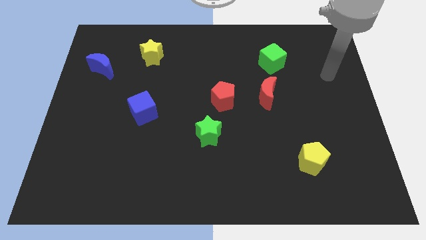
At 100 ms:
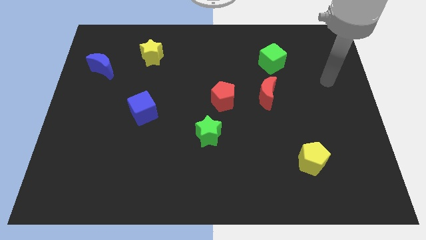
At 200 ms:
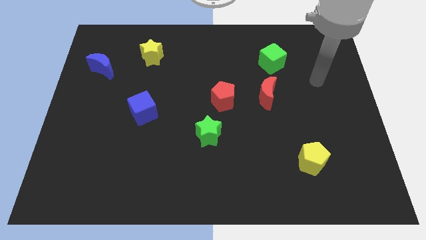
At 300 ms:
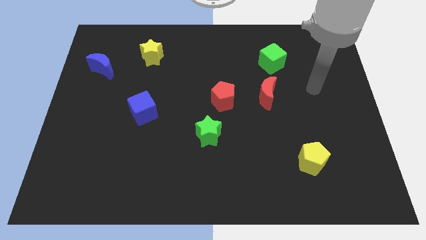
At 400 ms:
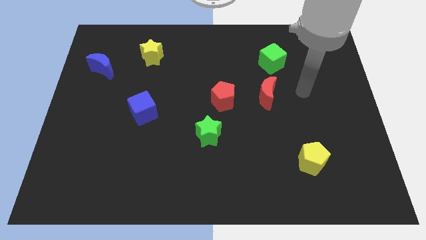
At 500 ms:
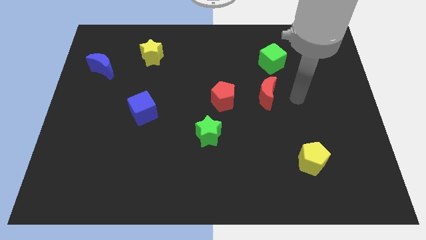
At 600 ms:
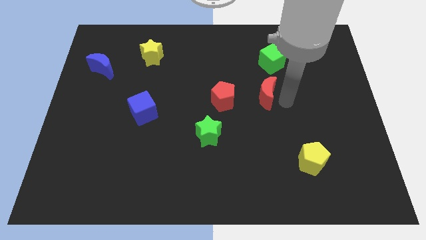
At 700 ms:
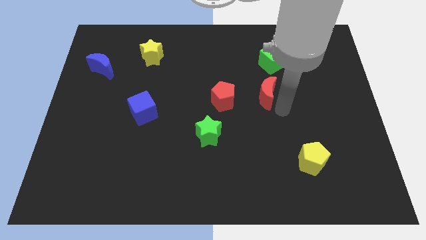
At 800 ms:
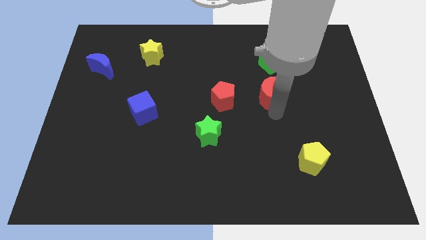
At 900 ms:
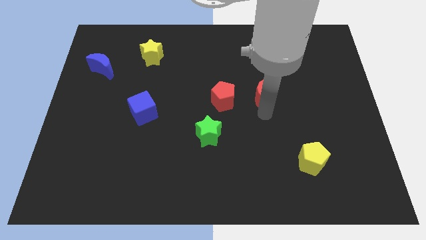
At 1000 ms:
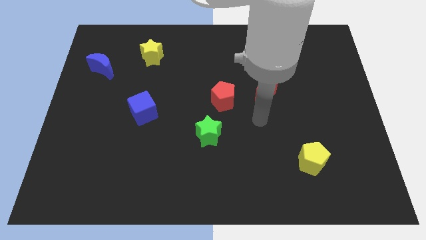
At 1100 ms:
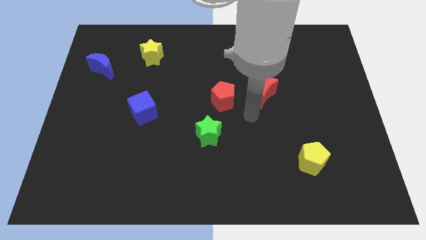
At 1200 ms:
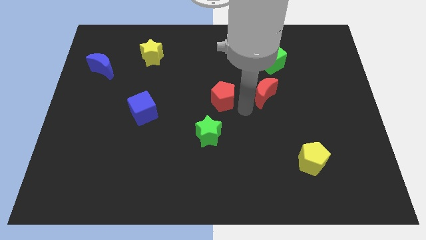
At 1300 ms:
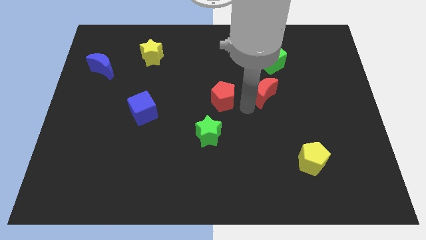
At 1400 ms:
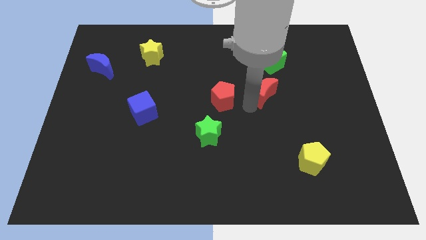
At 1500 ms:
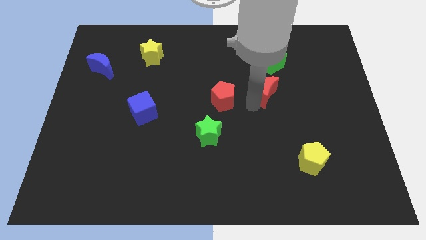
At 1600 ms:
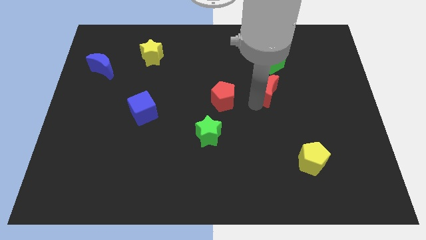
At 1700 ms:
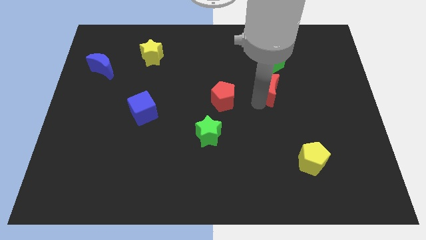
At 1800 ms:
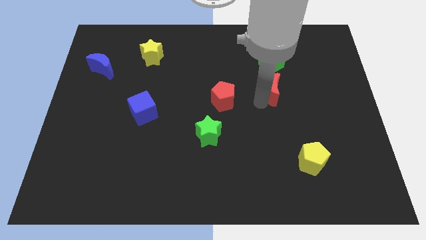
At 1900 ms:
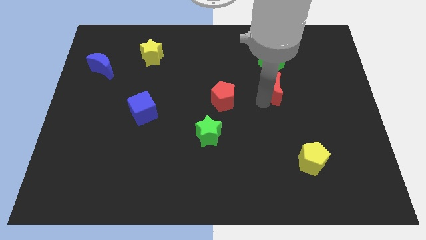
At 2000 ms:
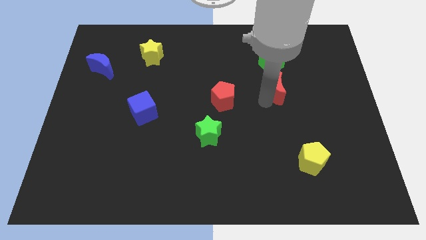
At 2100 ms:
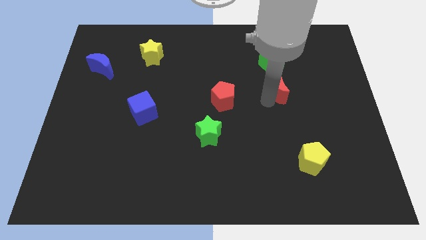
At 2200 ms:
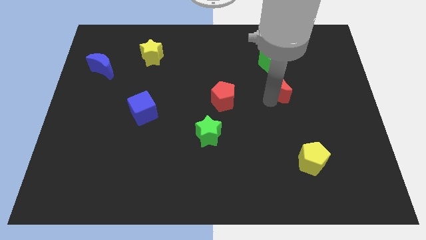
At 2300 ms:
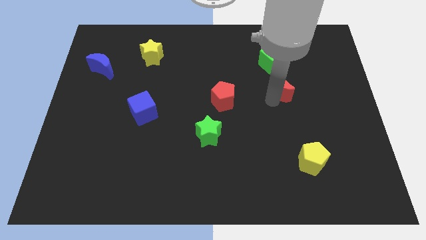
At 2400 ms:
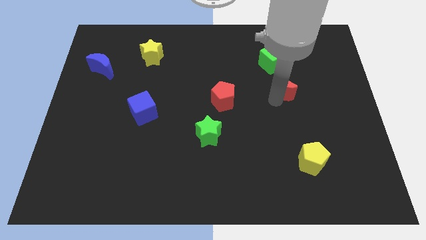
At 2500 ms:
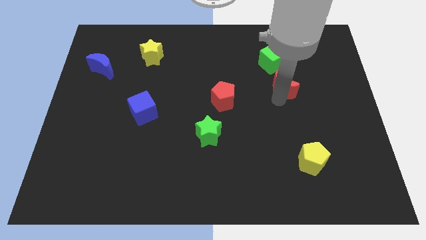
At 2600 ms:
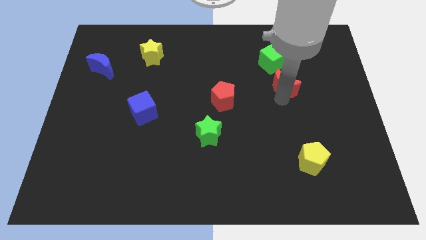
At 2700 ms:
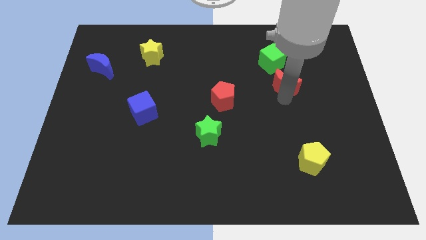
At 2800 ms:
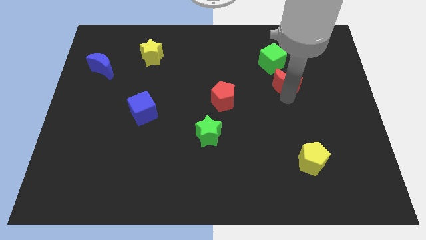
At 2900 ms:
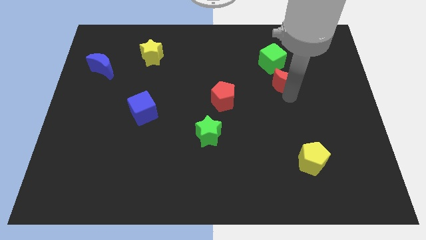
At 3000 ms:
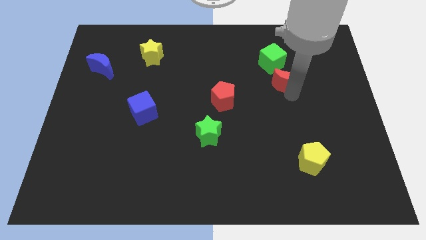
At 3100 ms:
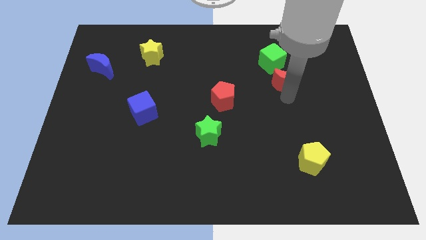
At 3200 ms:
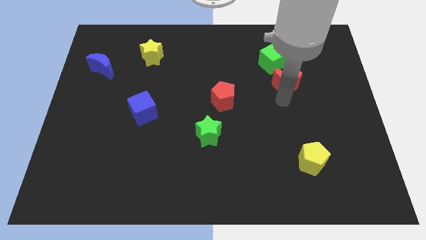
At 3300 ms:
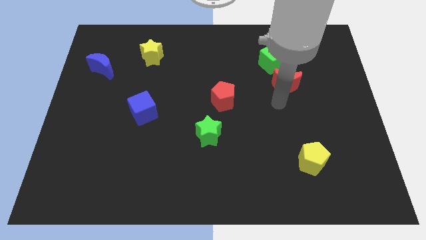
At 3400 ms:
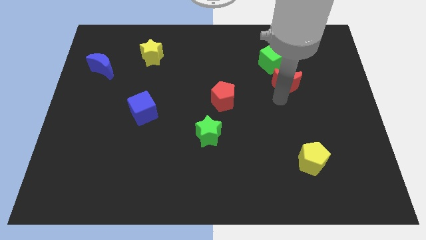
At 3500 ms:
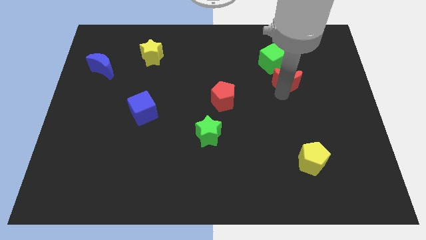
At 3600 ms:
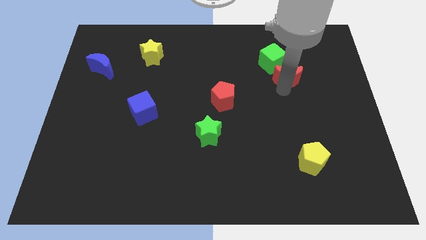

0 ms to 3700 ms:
slide the red moon up and then right somewhat

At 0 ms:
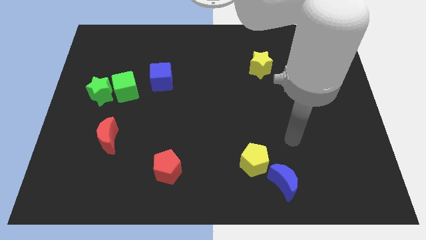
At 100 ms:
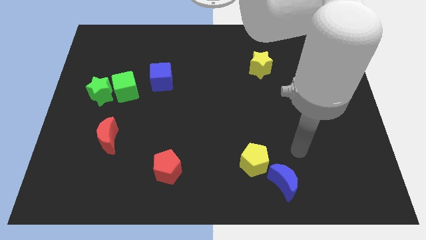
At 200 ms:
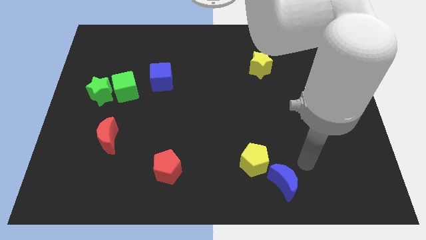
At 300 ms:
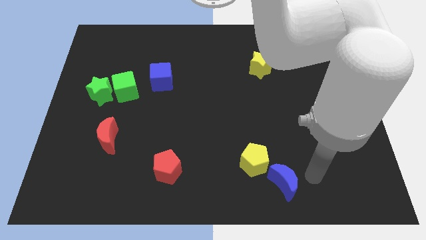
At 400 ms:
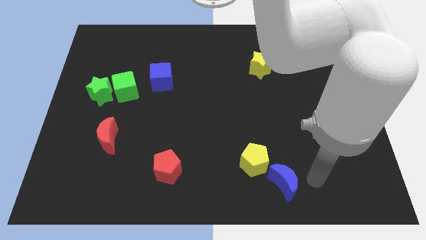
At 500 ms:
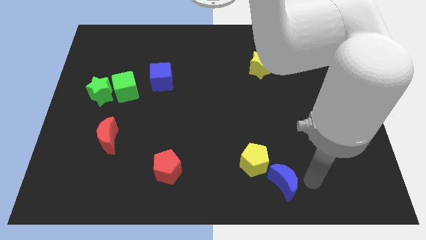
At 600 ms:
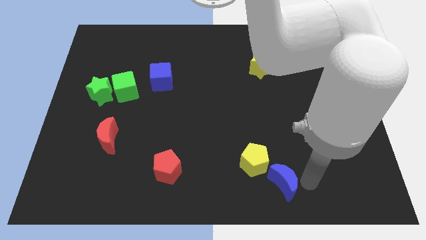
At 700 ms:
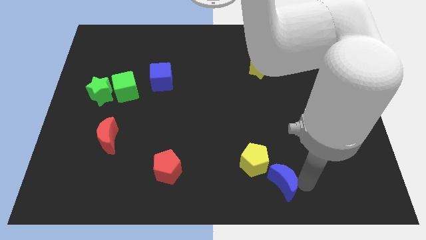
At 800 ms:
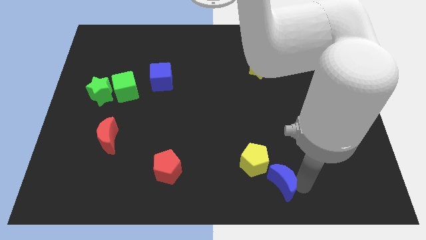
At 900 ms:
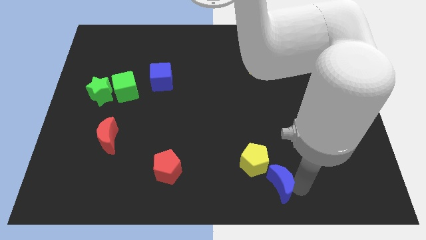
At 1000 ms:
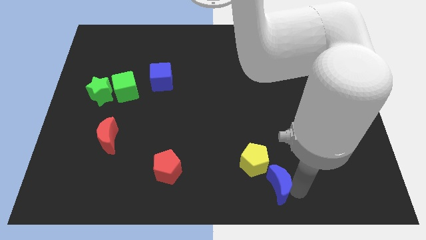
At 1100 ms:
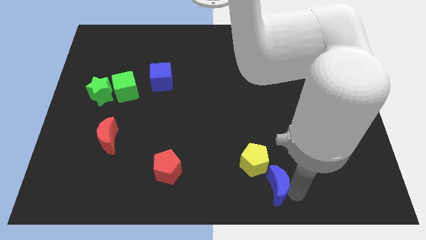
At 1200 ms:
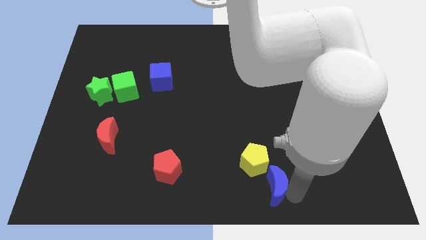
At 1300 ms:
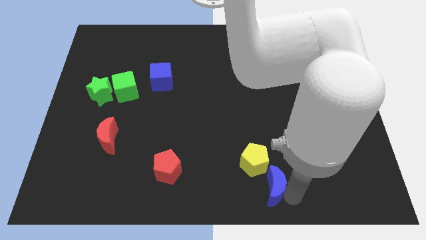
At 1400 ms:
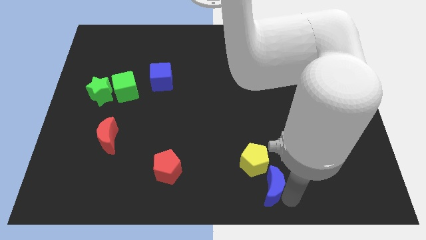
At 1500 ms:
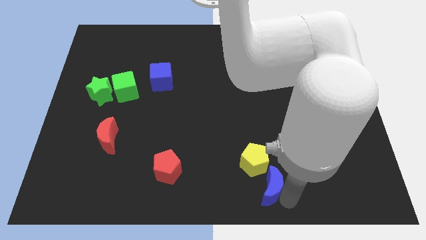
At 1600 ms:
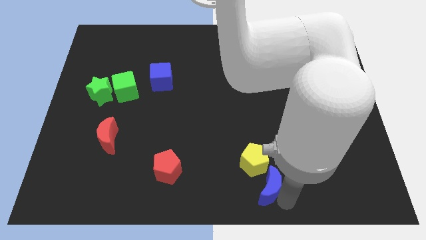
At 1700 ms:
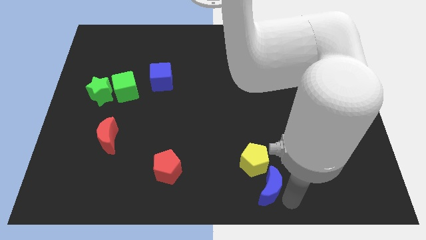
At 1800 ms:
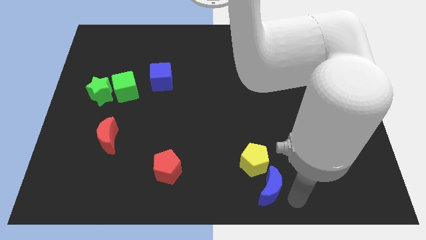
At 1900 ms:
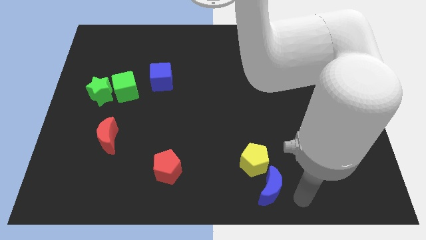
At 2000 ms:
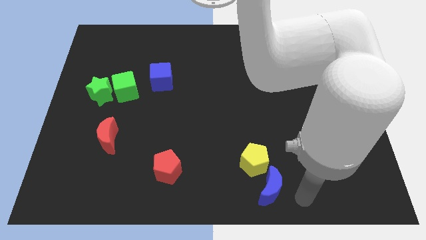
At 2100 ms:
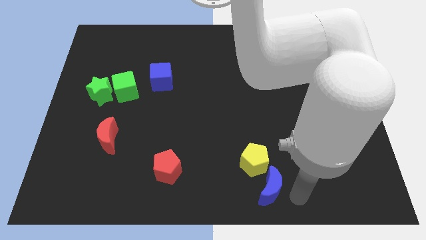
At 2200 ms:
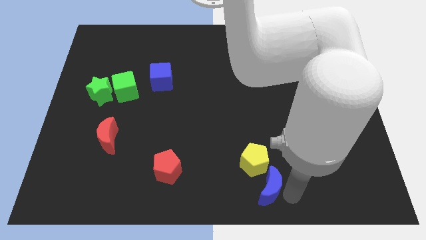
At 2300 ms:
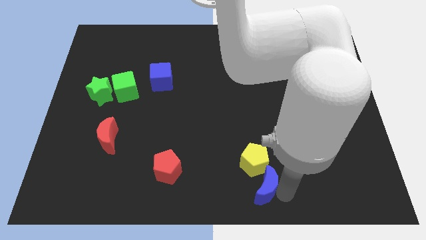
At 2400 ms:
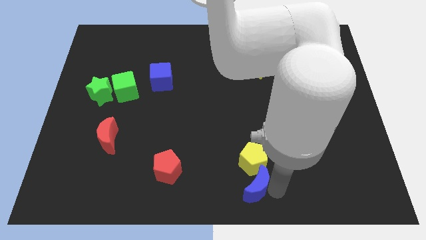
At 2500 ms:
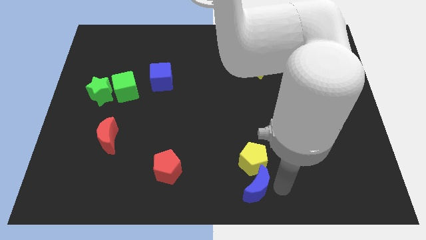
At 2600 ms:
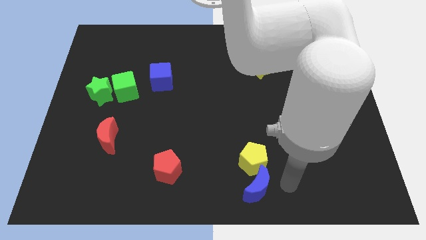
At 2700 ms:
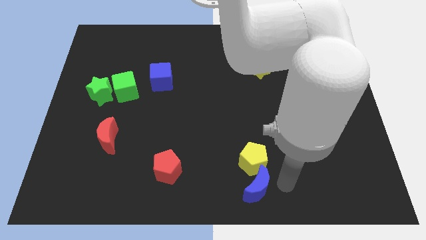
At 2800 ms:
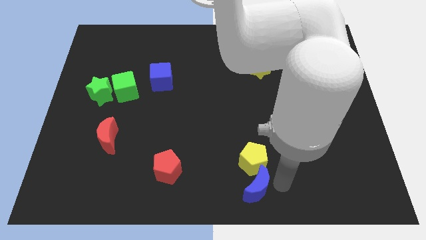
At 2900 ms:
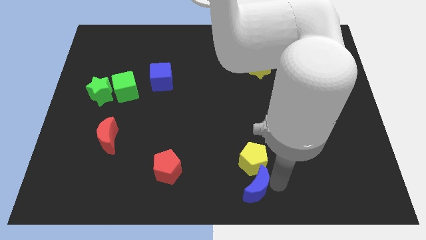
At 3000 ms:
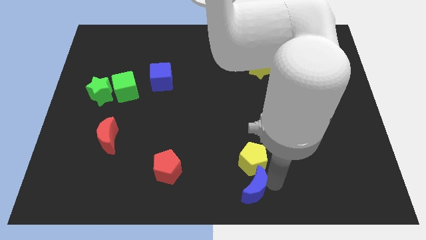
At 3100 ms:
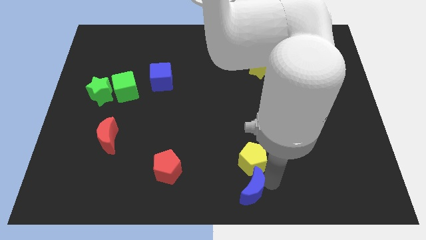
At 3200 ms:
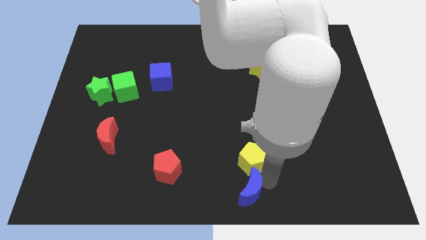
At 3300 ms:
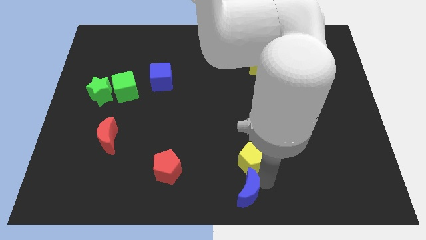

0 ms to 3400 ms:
move the blue moon a little to the left

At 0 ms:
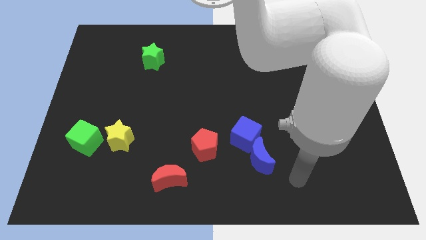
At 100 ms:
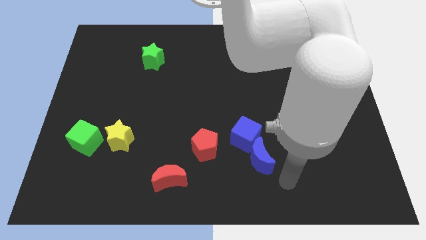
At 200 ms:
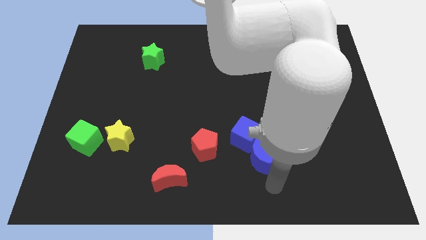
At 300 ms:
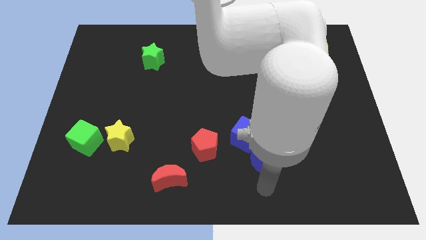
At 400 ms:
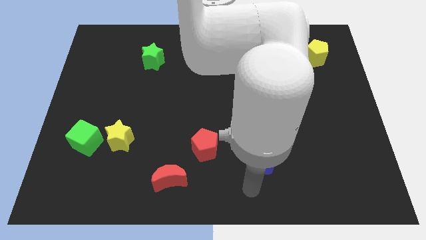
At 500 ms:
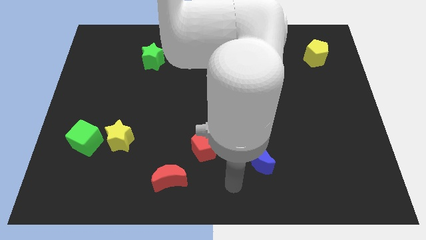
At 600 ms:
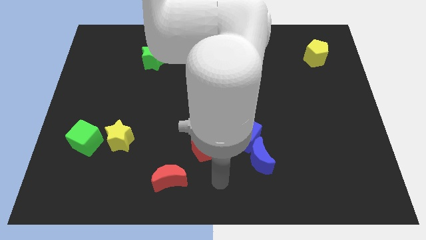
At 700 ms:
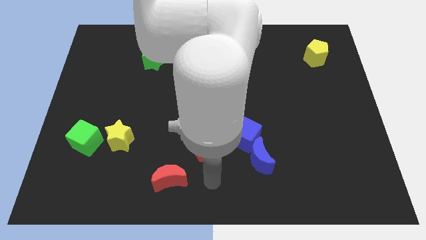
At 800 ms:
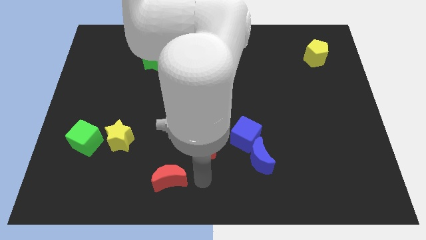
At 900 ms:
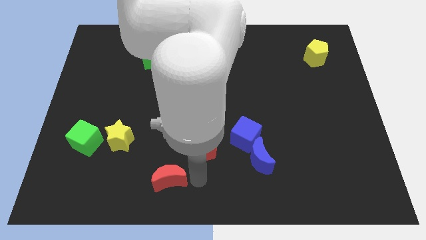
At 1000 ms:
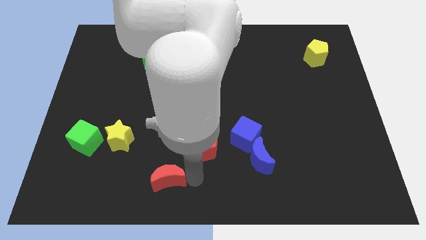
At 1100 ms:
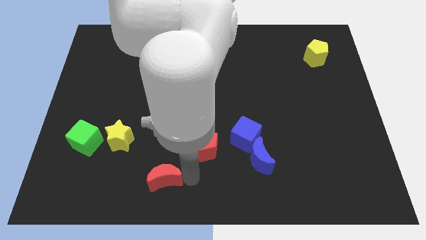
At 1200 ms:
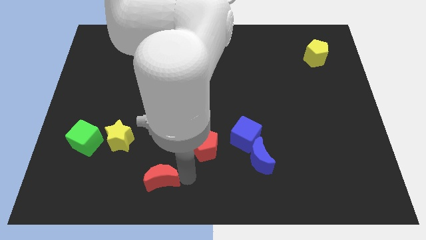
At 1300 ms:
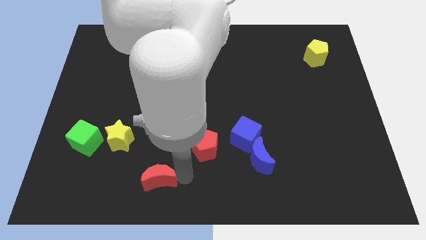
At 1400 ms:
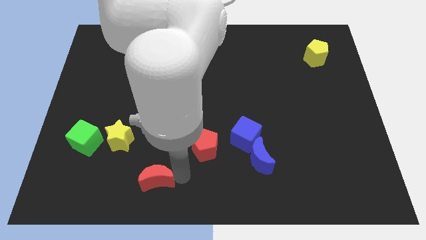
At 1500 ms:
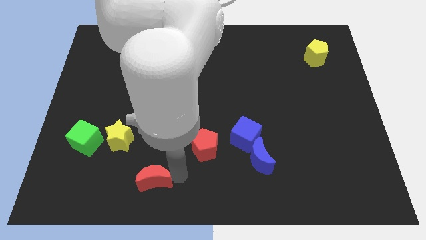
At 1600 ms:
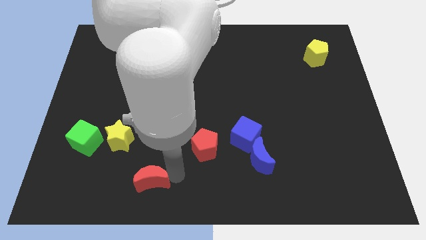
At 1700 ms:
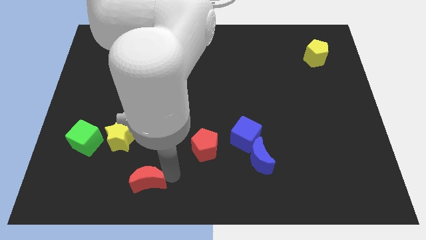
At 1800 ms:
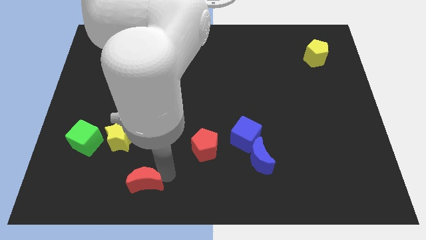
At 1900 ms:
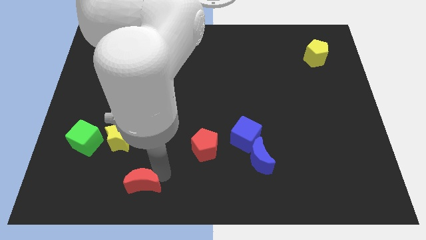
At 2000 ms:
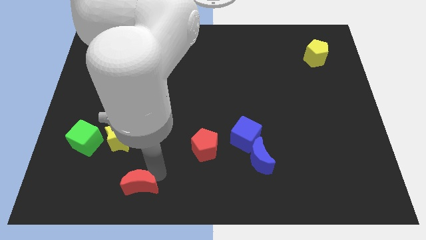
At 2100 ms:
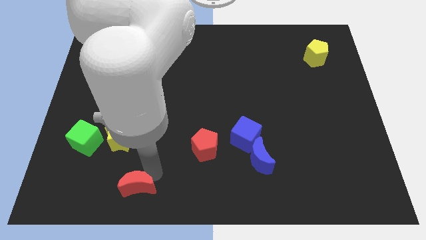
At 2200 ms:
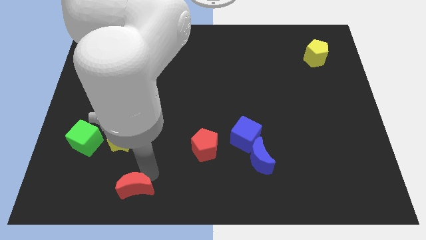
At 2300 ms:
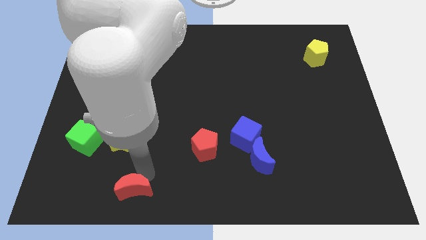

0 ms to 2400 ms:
slide the red moon to the left slightly
